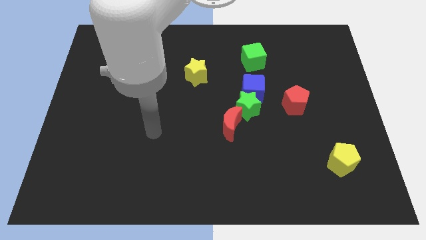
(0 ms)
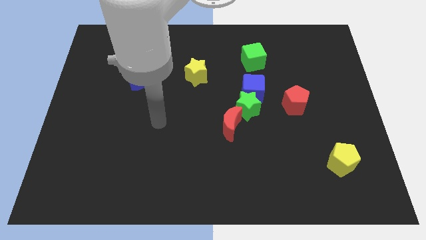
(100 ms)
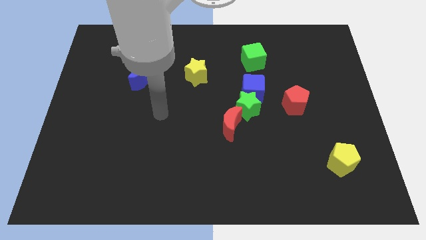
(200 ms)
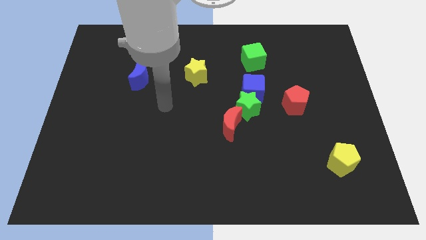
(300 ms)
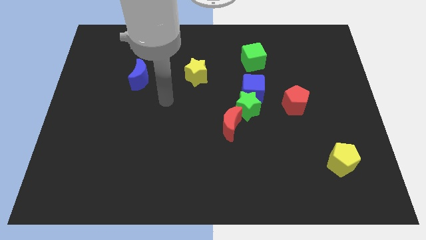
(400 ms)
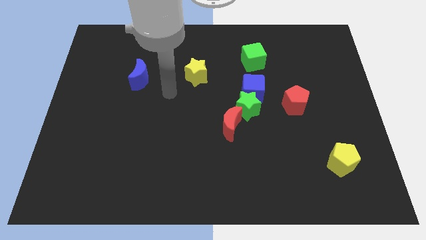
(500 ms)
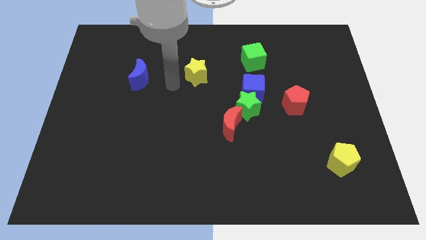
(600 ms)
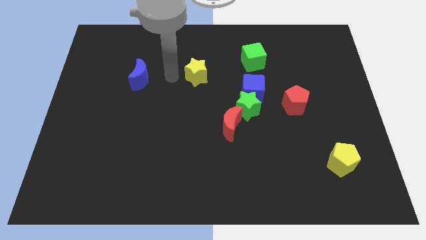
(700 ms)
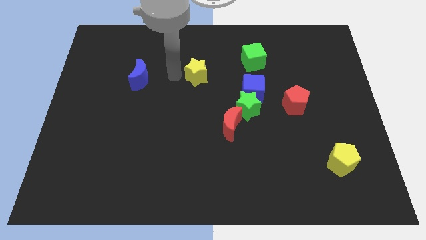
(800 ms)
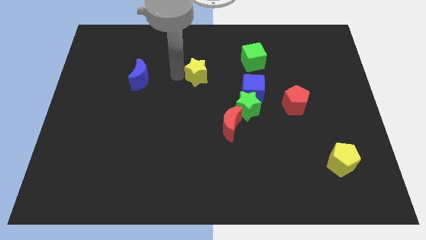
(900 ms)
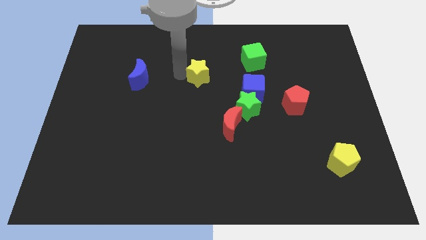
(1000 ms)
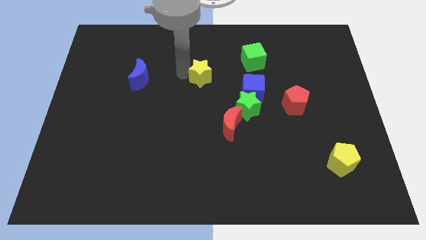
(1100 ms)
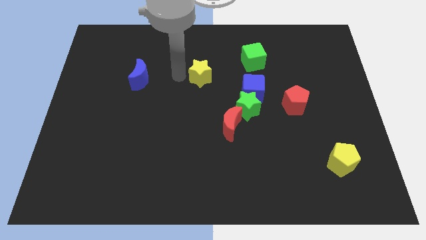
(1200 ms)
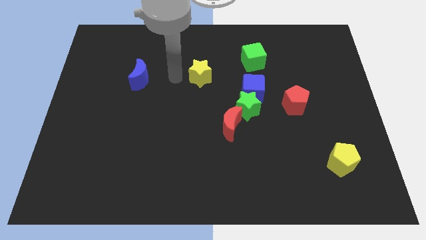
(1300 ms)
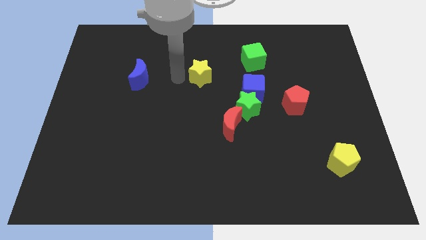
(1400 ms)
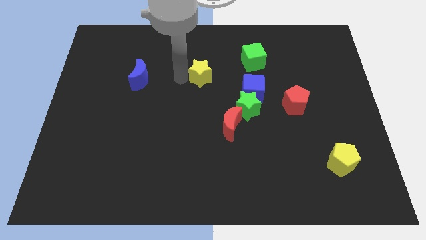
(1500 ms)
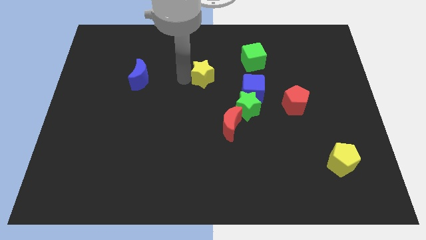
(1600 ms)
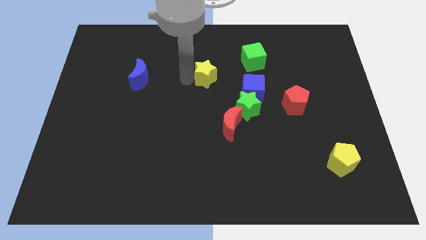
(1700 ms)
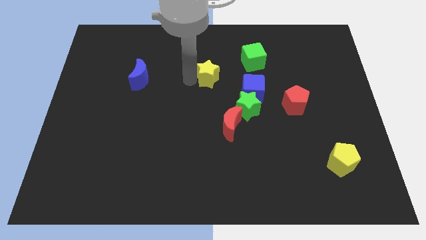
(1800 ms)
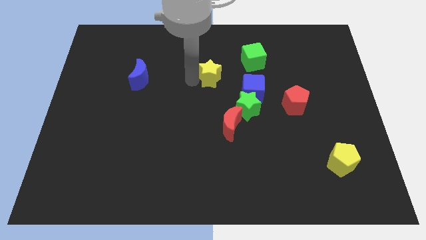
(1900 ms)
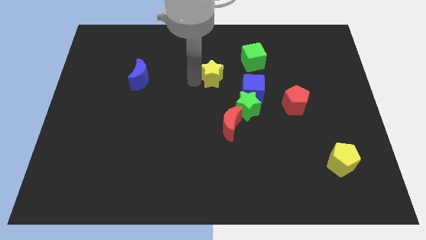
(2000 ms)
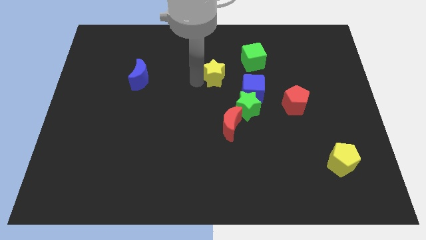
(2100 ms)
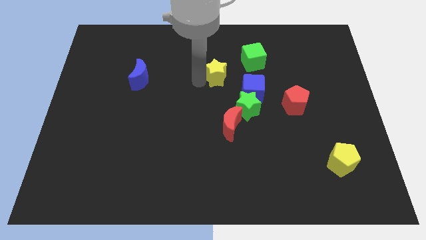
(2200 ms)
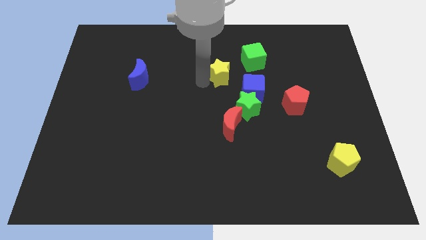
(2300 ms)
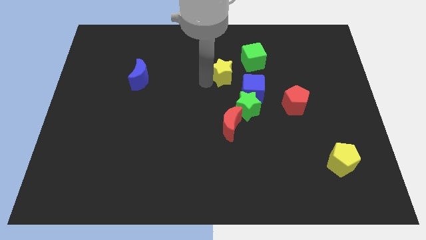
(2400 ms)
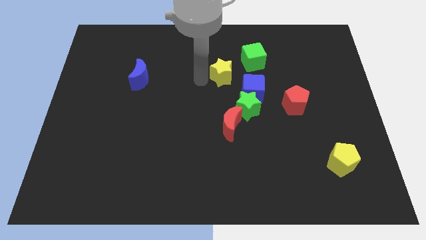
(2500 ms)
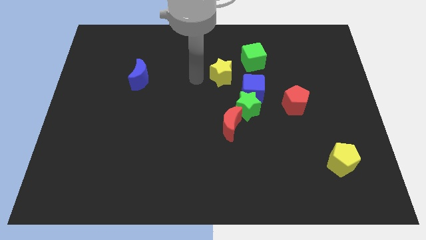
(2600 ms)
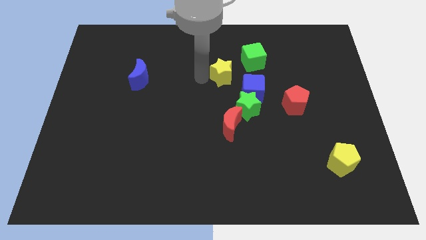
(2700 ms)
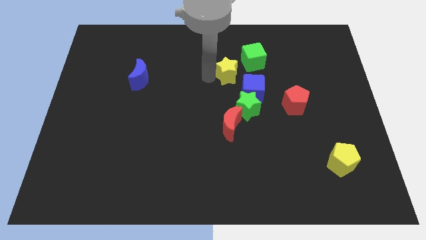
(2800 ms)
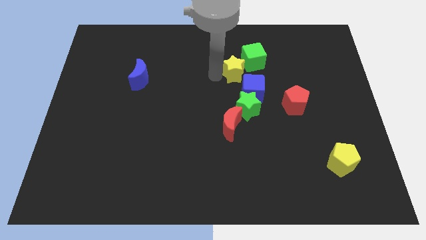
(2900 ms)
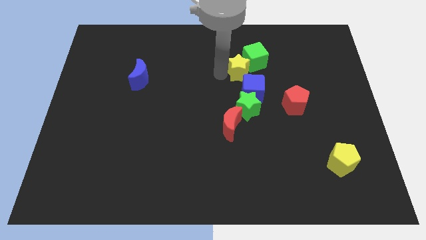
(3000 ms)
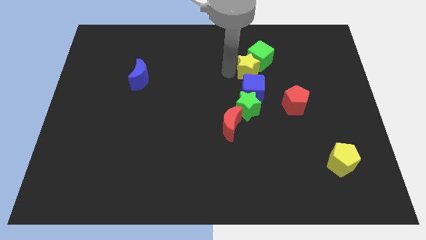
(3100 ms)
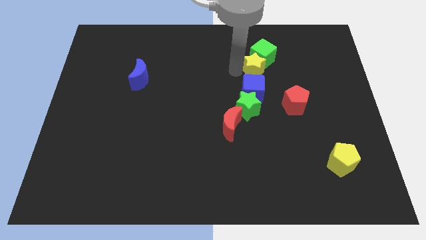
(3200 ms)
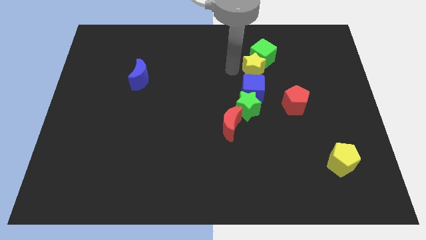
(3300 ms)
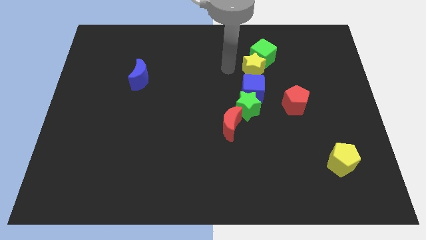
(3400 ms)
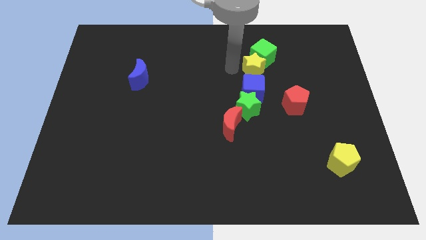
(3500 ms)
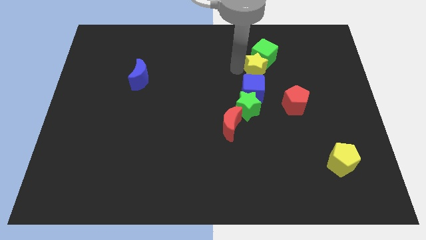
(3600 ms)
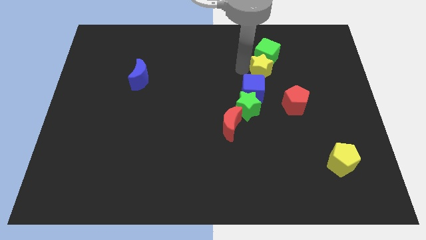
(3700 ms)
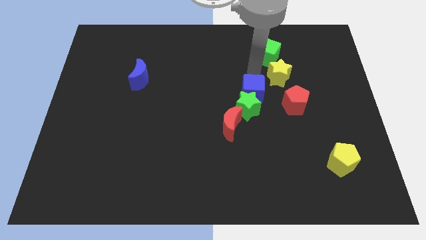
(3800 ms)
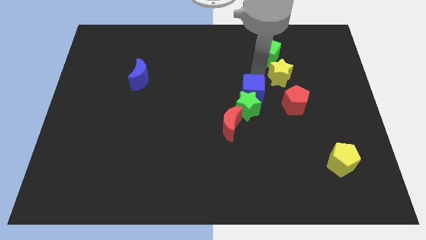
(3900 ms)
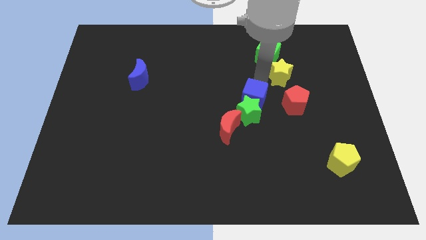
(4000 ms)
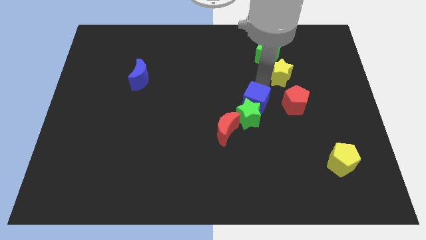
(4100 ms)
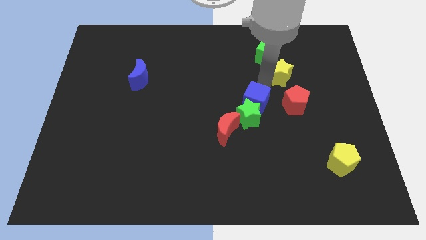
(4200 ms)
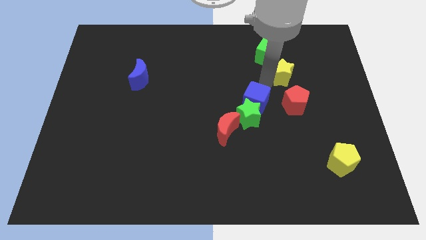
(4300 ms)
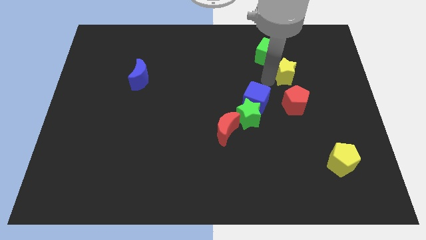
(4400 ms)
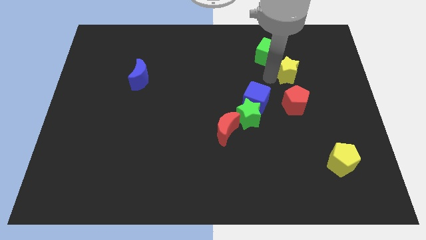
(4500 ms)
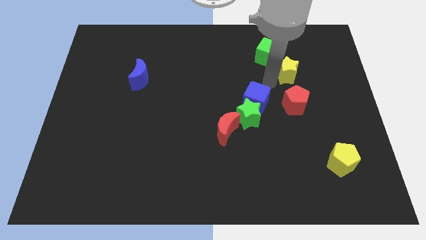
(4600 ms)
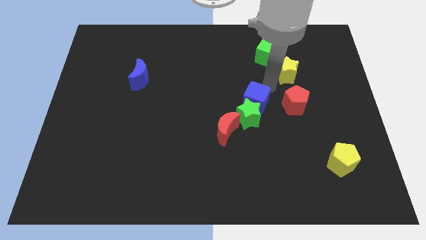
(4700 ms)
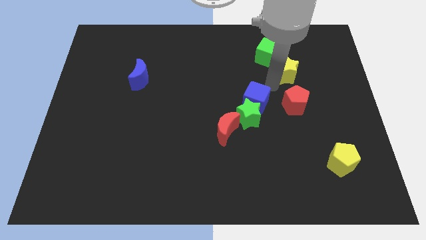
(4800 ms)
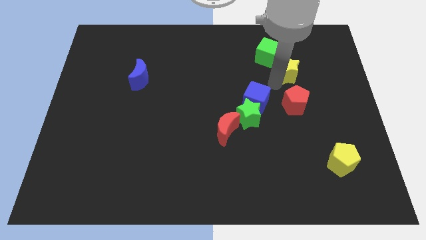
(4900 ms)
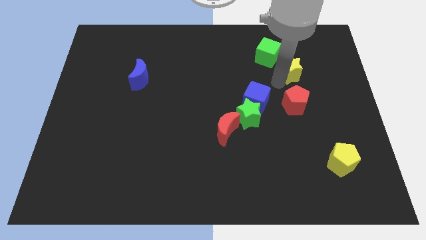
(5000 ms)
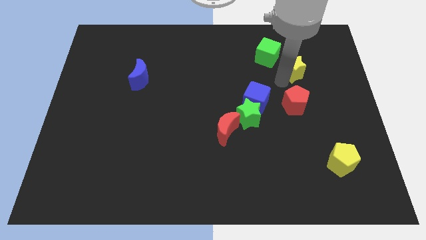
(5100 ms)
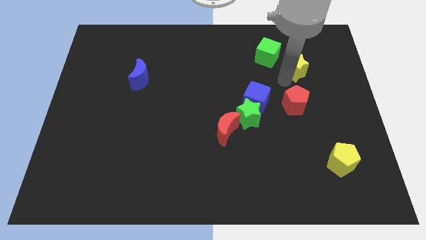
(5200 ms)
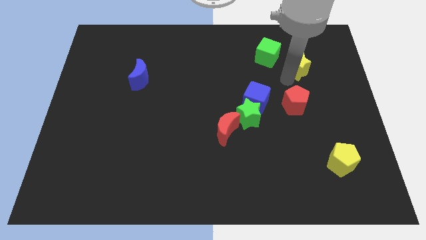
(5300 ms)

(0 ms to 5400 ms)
push the yellow star right of the green cube

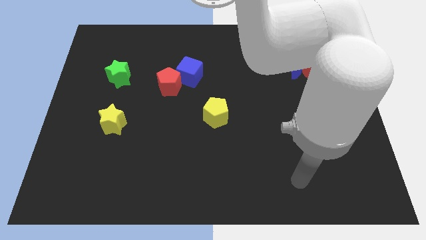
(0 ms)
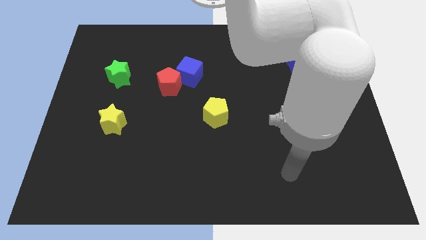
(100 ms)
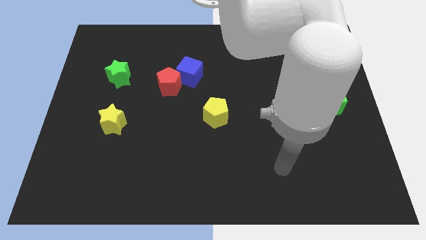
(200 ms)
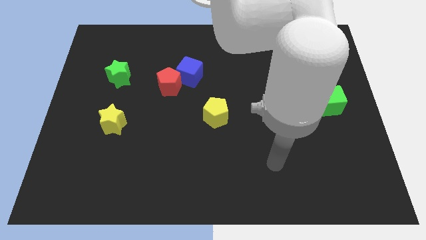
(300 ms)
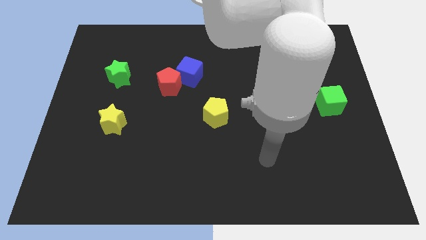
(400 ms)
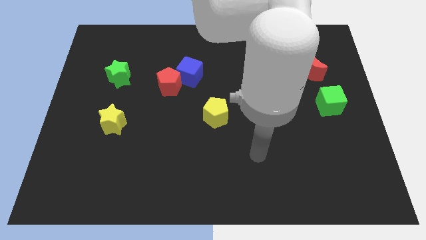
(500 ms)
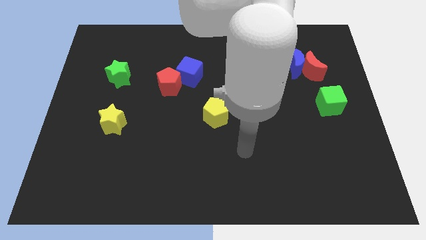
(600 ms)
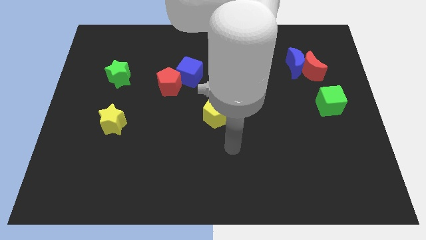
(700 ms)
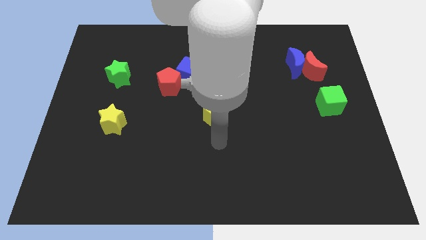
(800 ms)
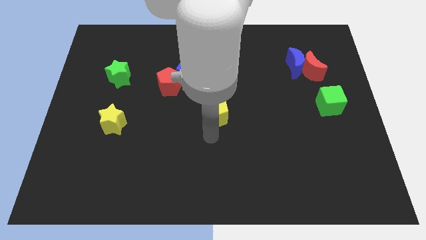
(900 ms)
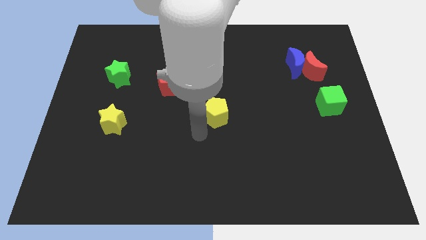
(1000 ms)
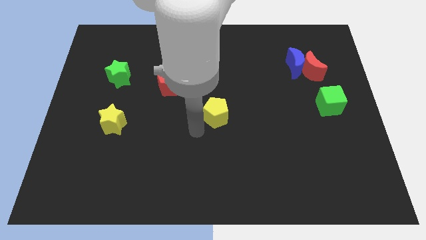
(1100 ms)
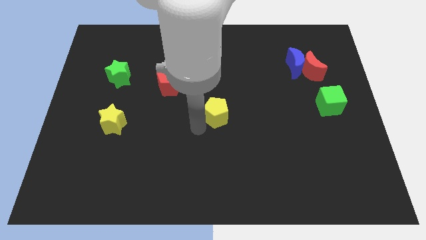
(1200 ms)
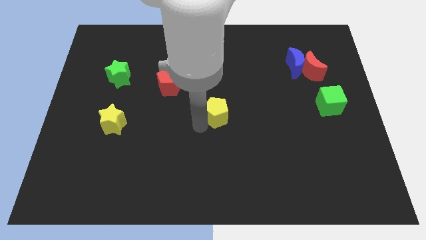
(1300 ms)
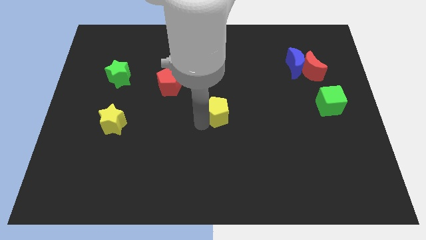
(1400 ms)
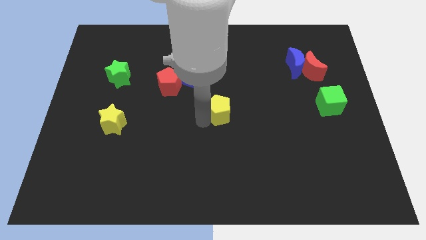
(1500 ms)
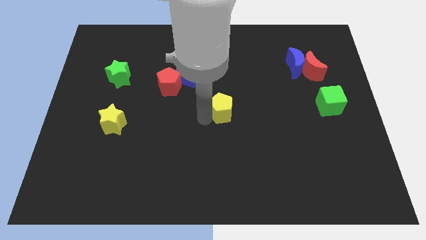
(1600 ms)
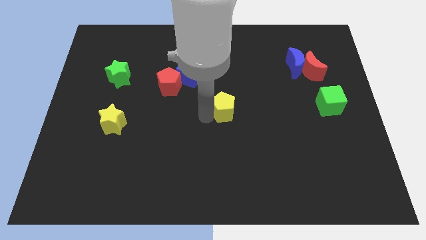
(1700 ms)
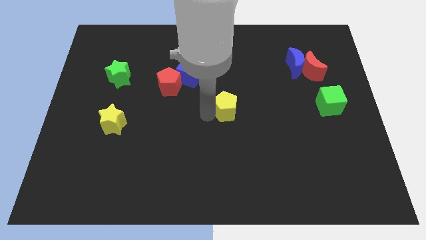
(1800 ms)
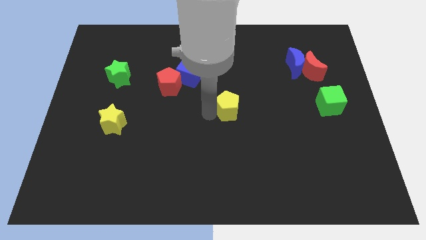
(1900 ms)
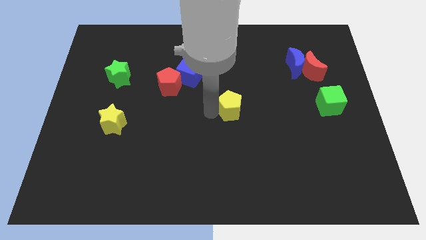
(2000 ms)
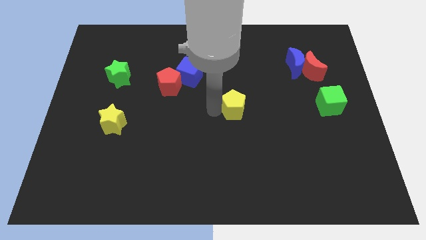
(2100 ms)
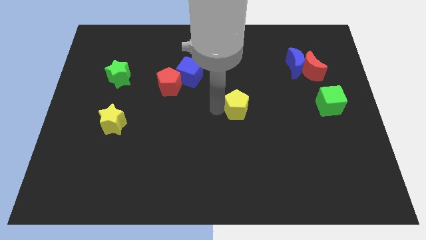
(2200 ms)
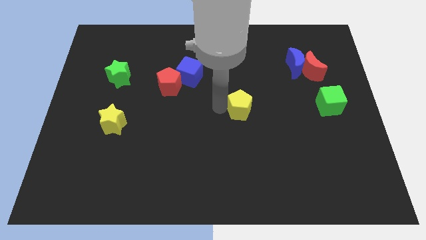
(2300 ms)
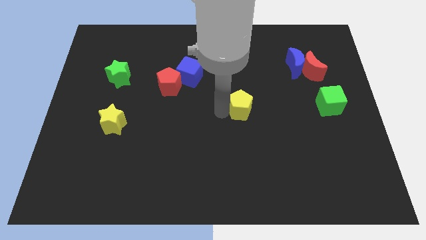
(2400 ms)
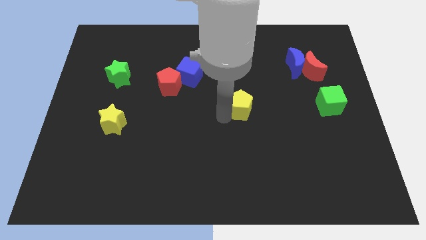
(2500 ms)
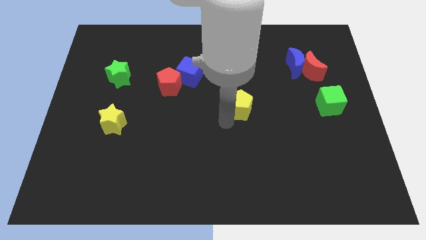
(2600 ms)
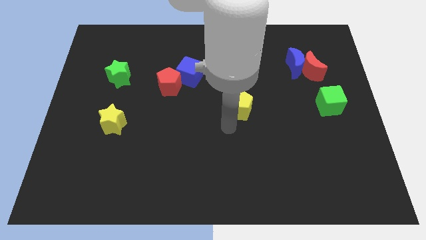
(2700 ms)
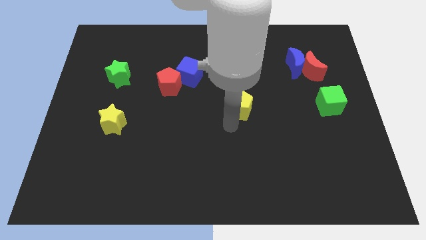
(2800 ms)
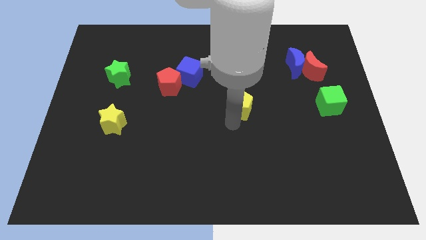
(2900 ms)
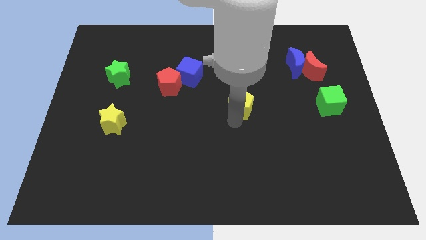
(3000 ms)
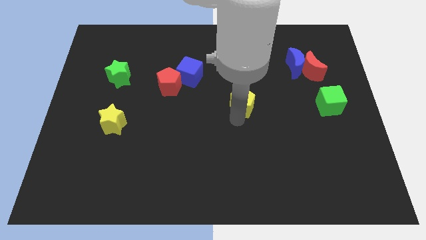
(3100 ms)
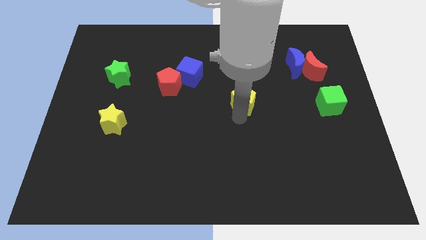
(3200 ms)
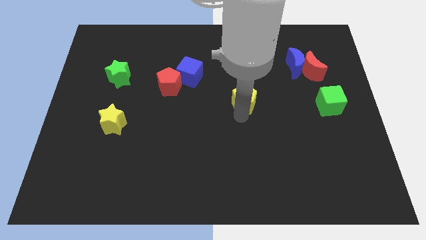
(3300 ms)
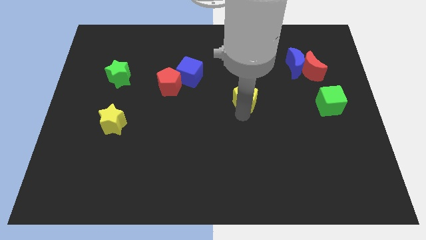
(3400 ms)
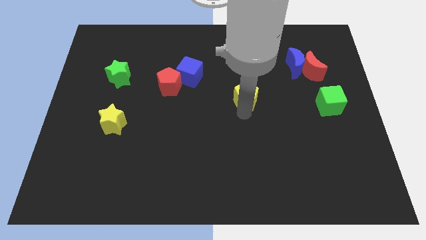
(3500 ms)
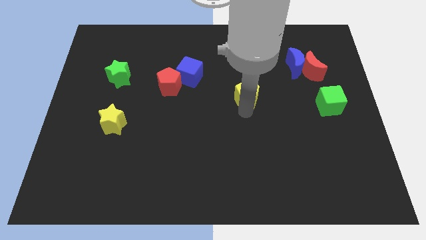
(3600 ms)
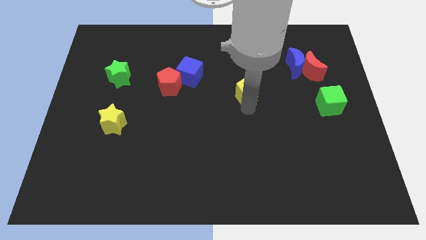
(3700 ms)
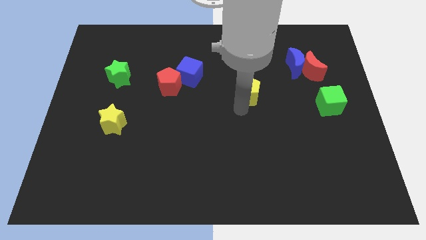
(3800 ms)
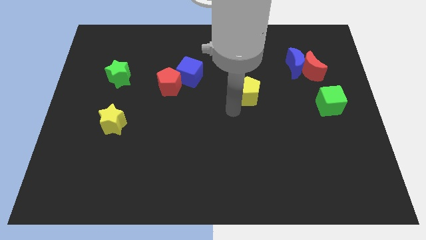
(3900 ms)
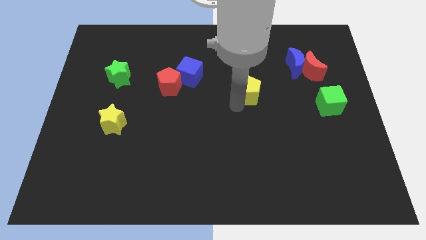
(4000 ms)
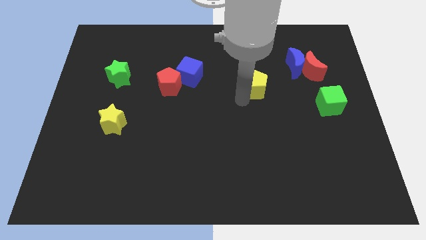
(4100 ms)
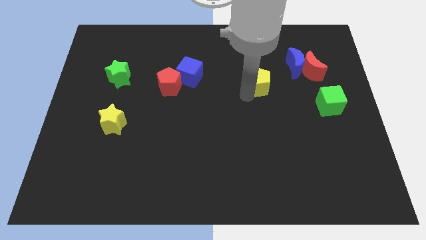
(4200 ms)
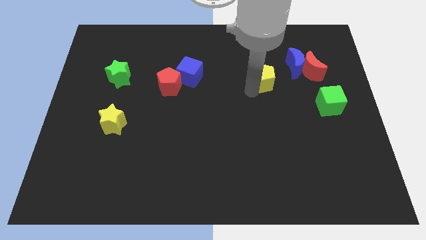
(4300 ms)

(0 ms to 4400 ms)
slide the yellow pentagon to the left side of the red moon
